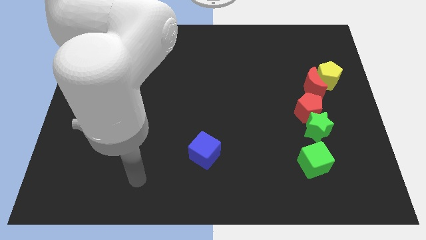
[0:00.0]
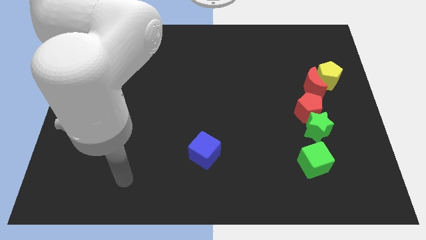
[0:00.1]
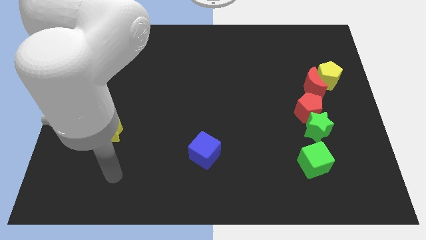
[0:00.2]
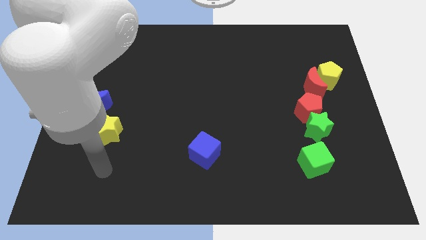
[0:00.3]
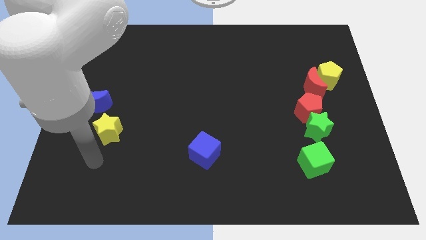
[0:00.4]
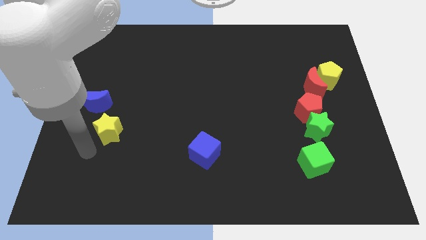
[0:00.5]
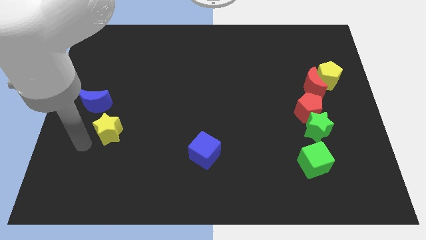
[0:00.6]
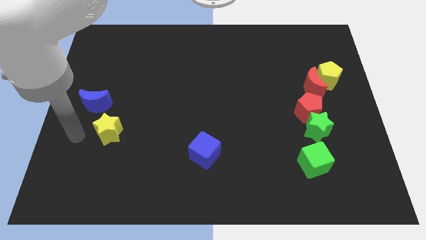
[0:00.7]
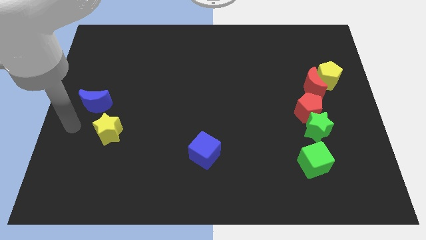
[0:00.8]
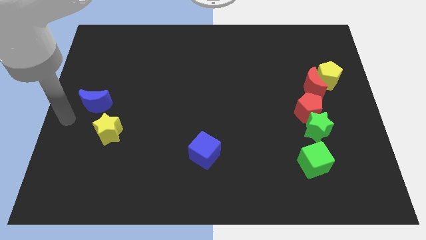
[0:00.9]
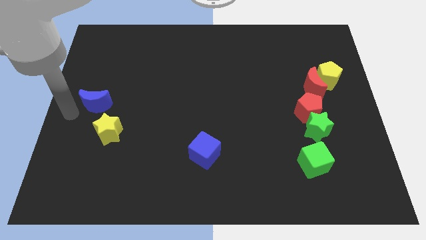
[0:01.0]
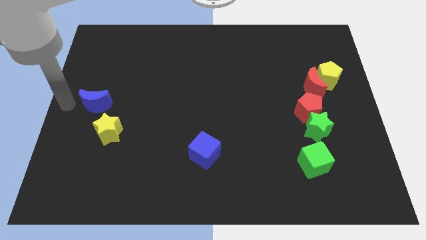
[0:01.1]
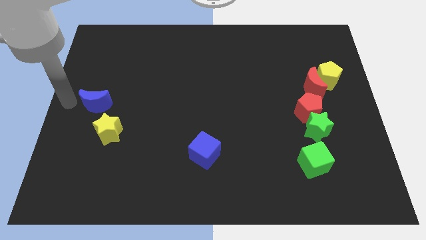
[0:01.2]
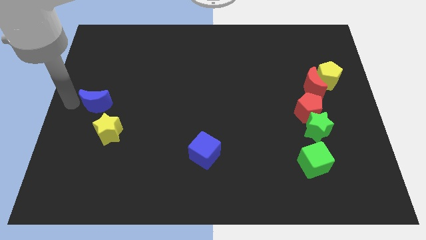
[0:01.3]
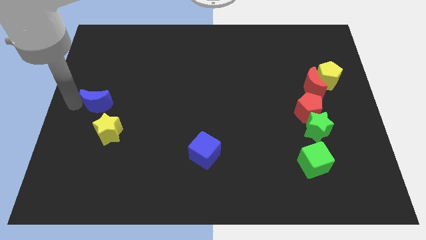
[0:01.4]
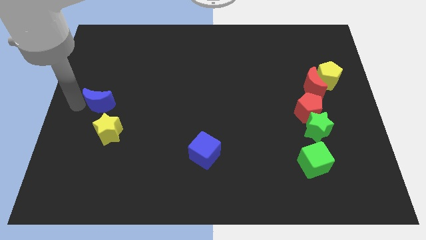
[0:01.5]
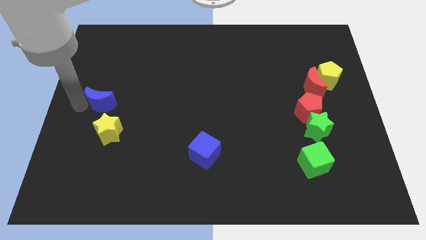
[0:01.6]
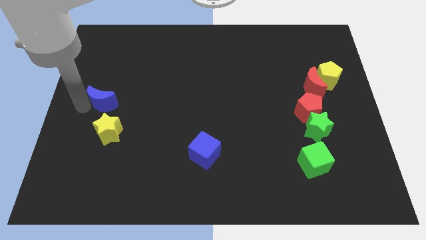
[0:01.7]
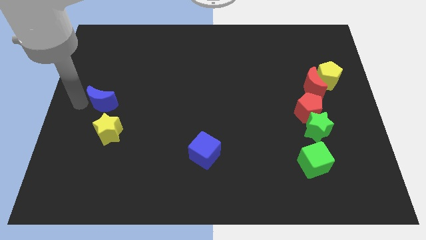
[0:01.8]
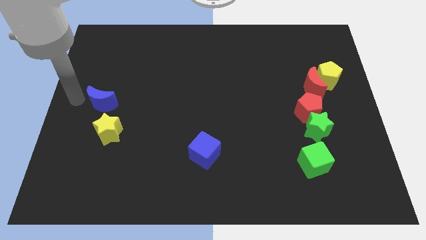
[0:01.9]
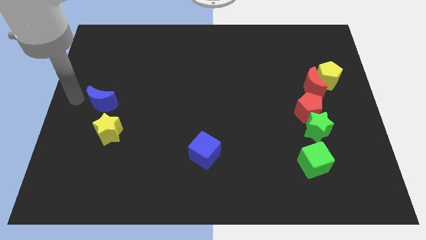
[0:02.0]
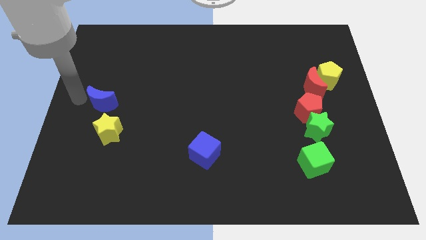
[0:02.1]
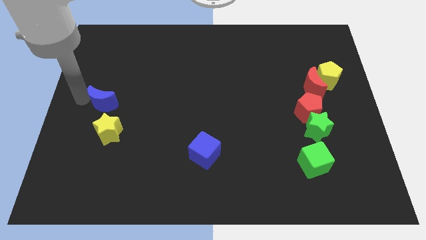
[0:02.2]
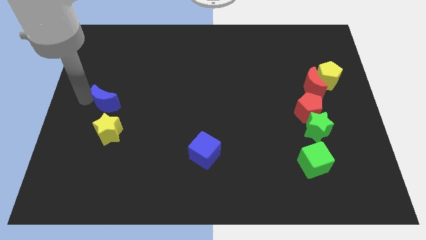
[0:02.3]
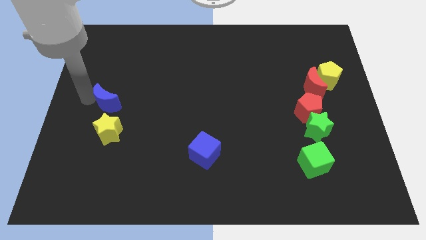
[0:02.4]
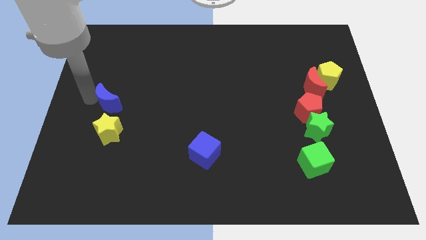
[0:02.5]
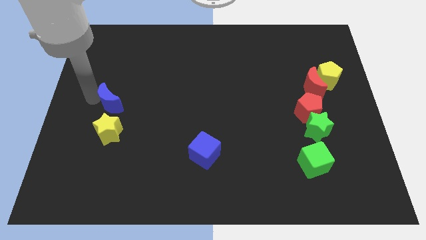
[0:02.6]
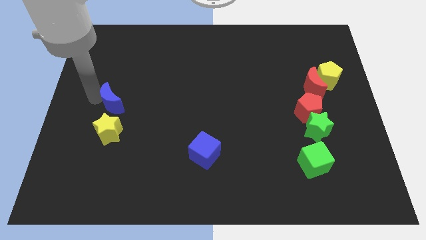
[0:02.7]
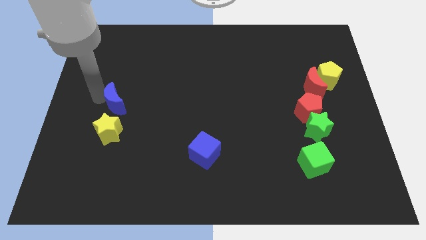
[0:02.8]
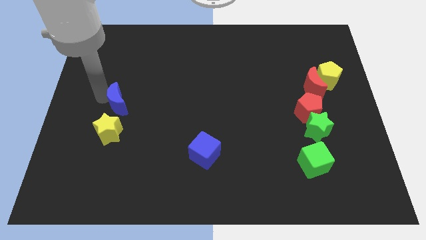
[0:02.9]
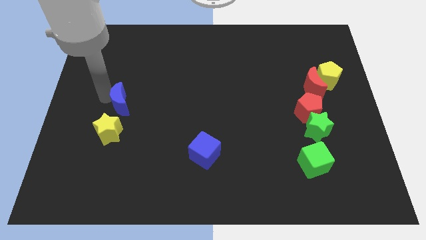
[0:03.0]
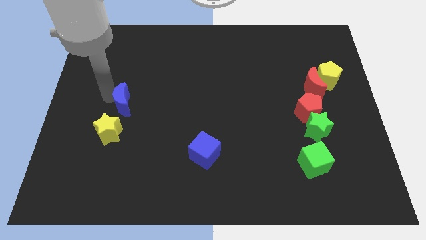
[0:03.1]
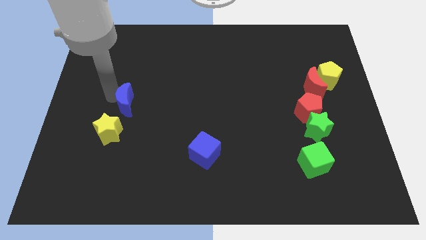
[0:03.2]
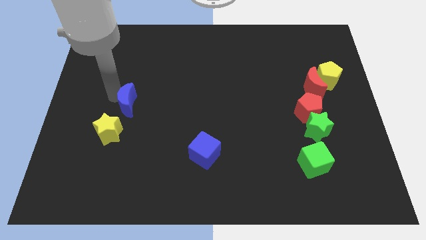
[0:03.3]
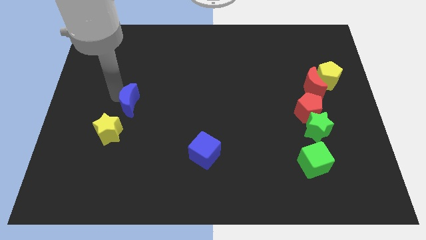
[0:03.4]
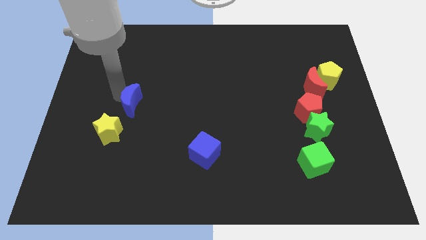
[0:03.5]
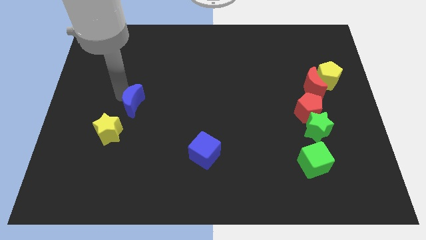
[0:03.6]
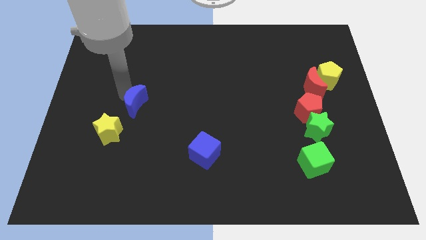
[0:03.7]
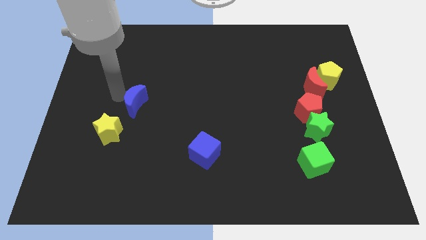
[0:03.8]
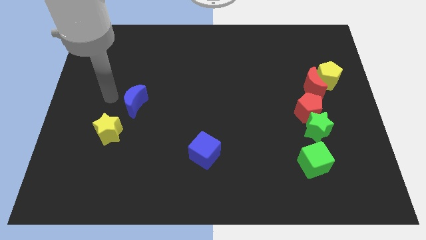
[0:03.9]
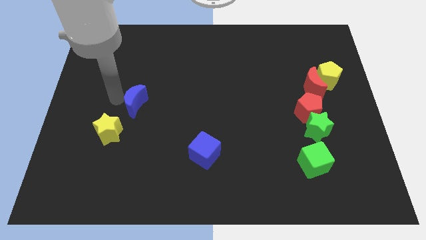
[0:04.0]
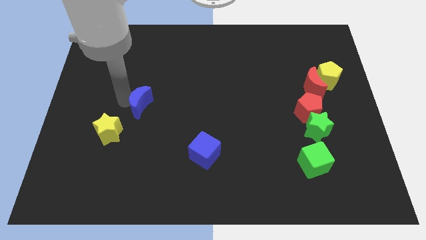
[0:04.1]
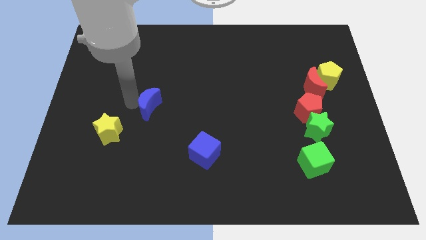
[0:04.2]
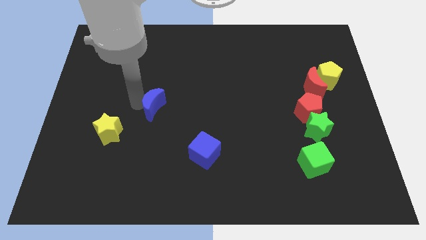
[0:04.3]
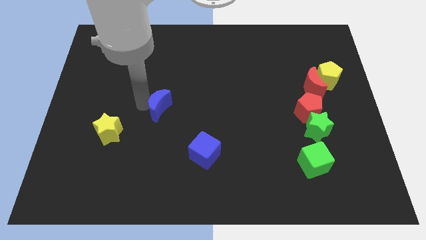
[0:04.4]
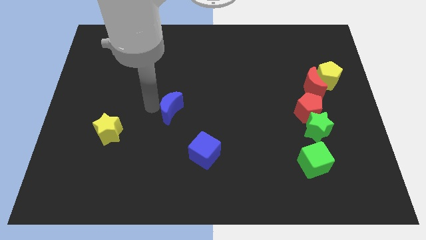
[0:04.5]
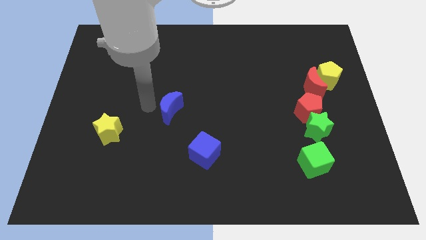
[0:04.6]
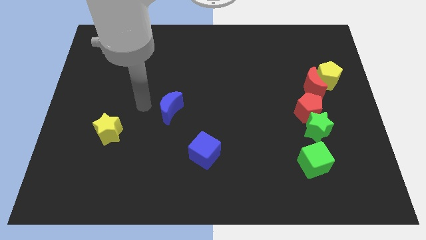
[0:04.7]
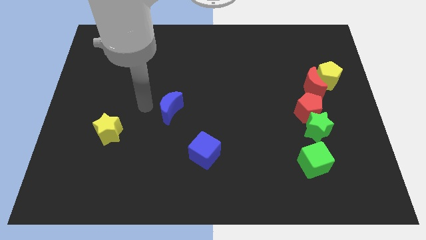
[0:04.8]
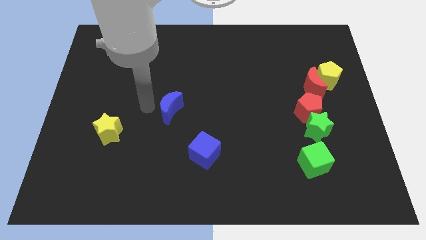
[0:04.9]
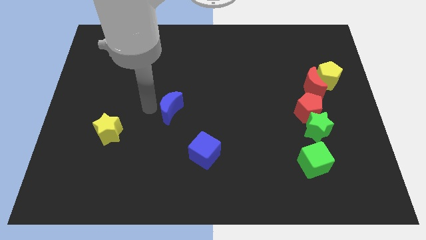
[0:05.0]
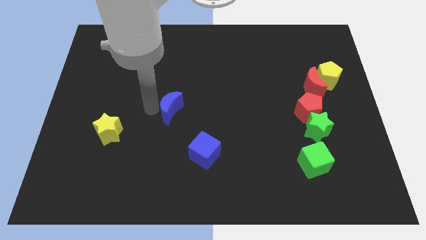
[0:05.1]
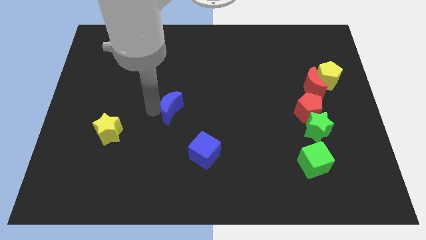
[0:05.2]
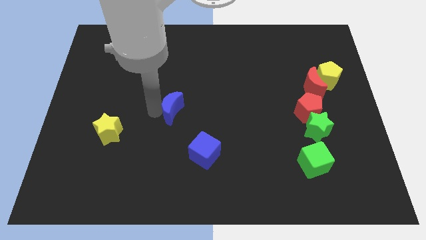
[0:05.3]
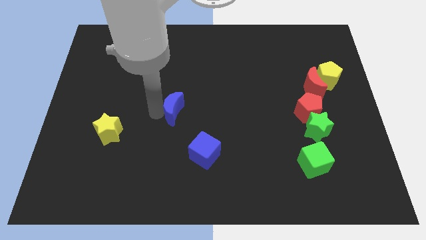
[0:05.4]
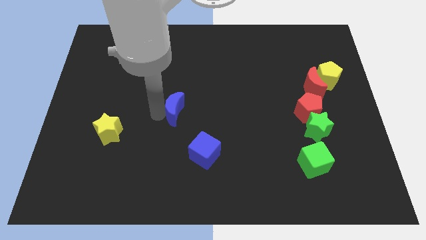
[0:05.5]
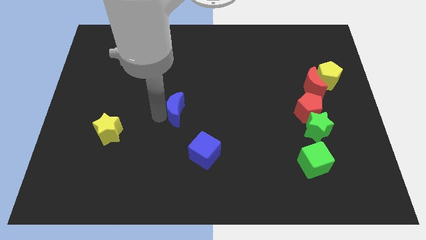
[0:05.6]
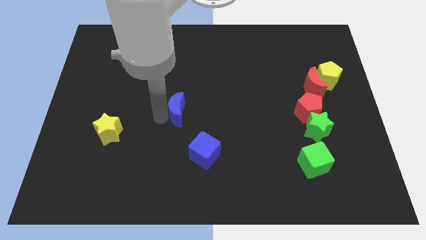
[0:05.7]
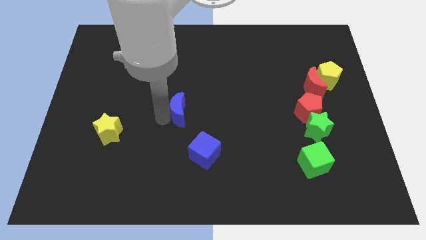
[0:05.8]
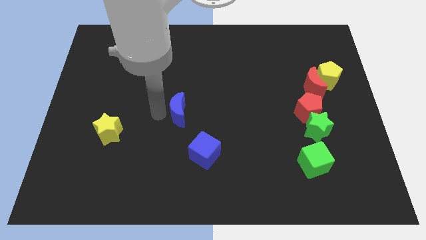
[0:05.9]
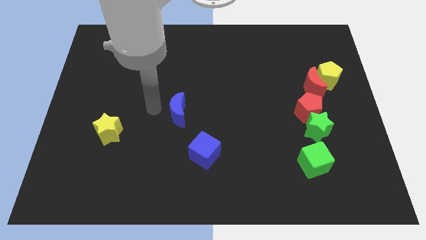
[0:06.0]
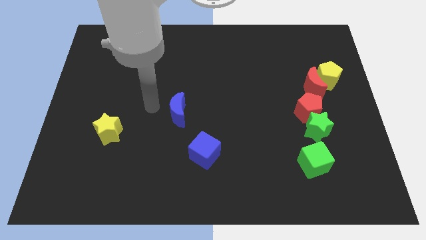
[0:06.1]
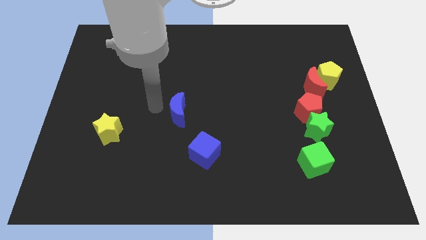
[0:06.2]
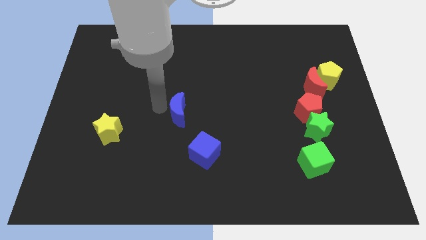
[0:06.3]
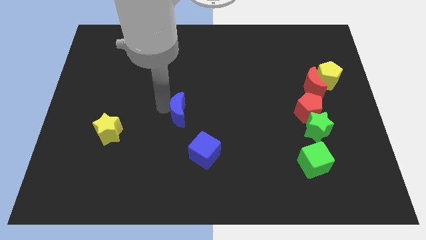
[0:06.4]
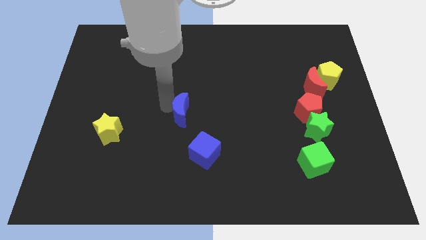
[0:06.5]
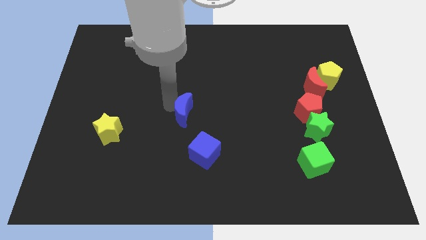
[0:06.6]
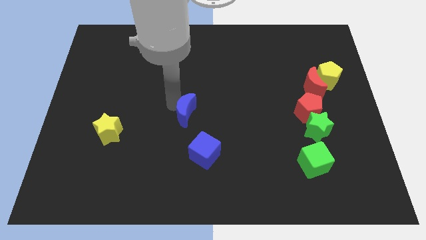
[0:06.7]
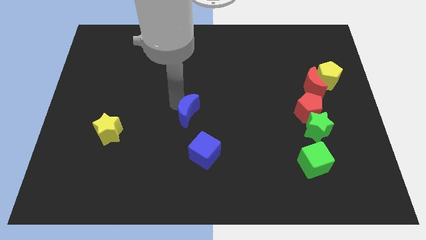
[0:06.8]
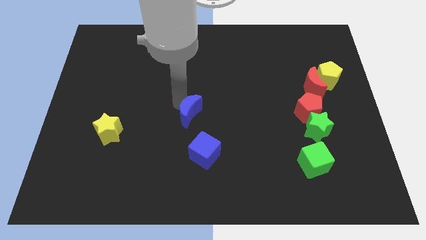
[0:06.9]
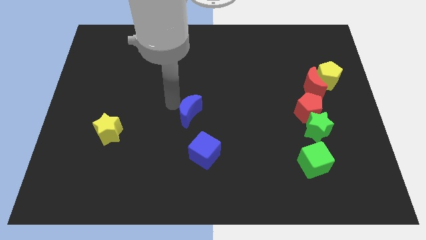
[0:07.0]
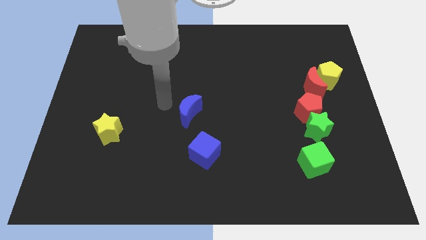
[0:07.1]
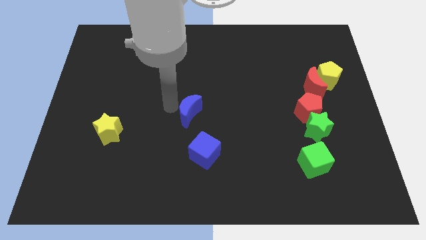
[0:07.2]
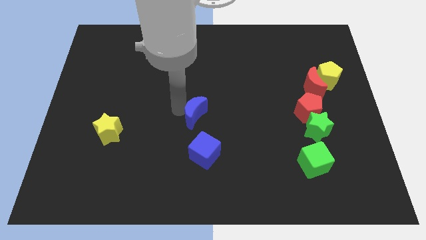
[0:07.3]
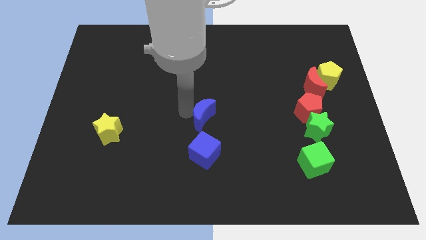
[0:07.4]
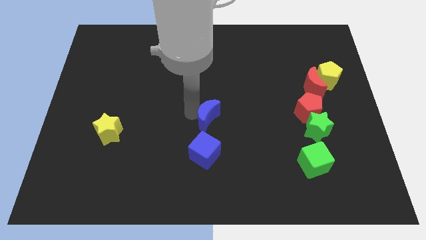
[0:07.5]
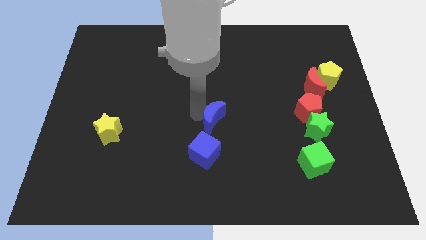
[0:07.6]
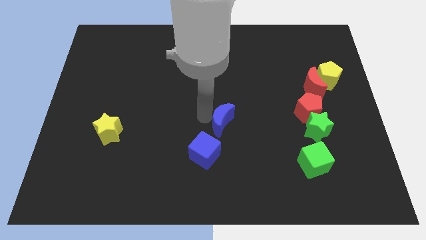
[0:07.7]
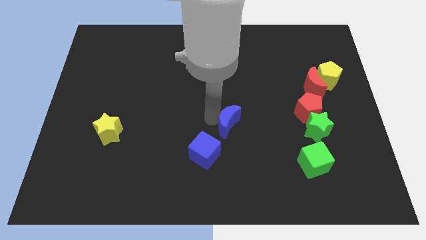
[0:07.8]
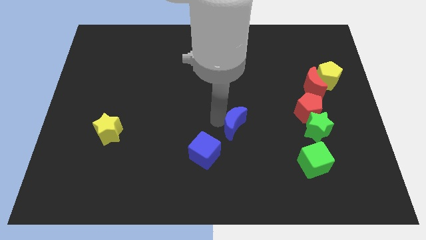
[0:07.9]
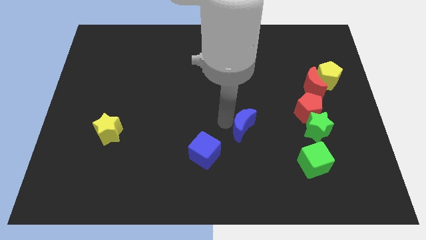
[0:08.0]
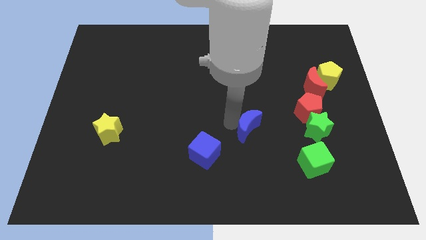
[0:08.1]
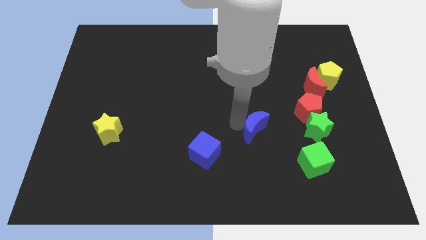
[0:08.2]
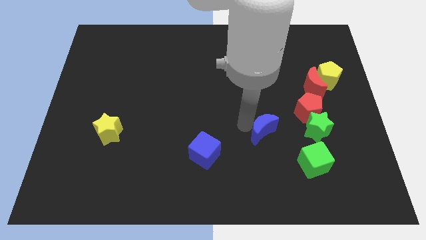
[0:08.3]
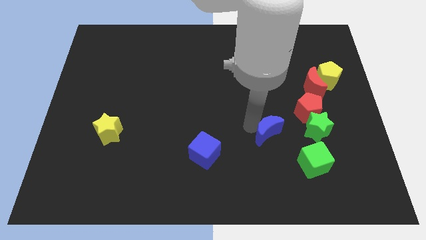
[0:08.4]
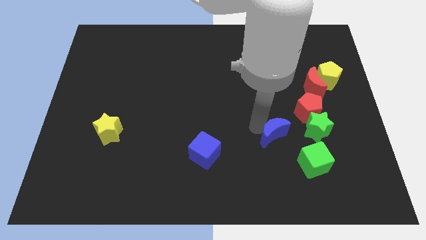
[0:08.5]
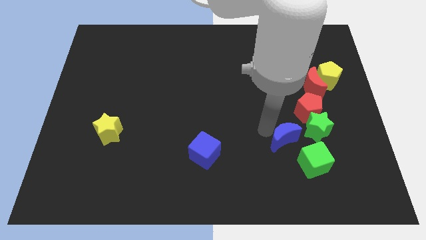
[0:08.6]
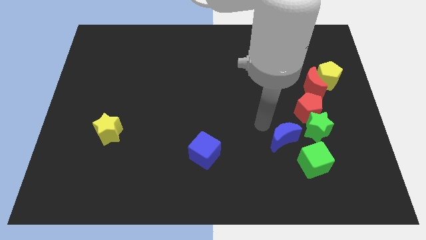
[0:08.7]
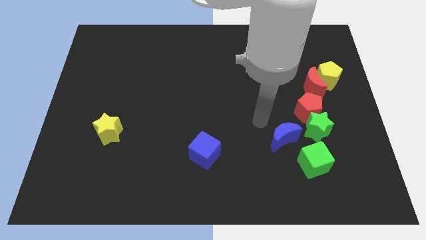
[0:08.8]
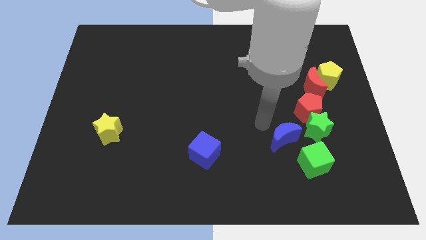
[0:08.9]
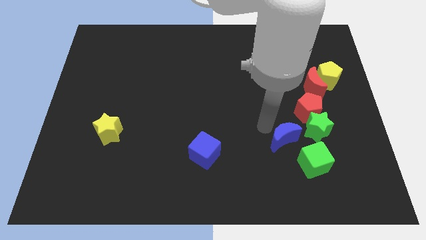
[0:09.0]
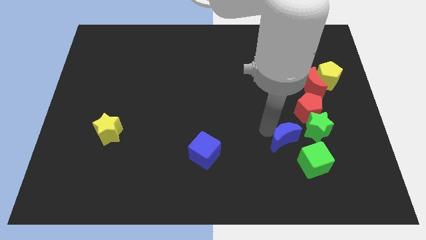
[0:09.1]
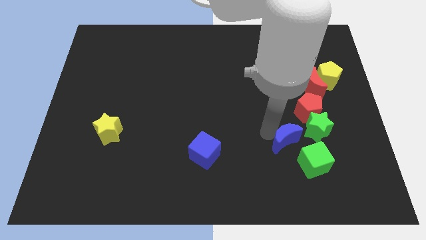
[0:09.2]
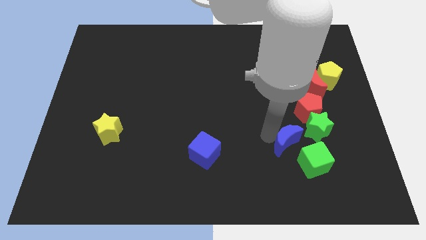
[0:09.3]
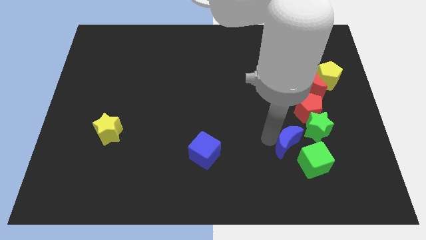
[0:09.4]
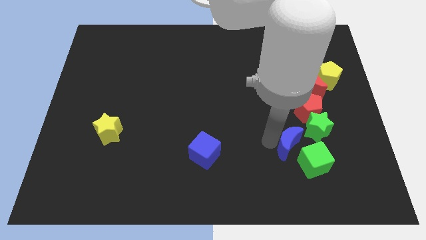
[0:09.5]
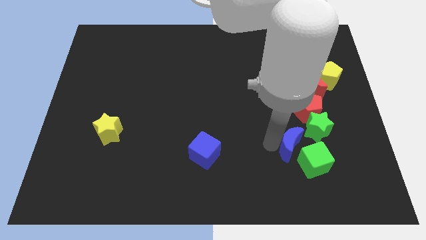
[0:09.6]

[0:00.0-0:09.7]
put the blue moon next to the green cube
